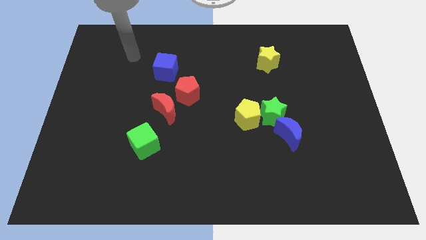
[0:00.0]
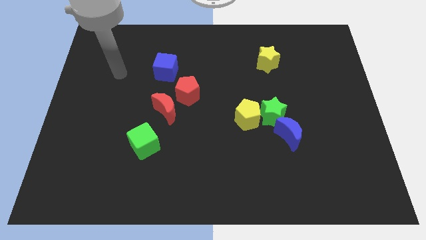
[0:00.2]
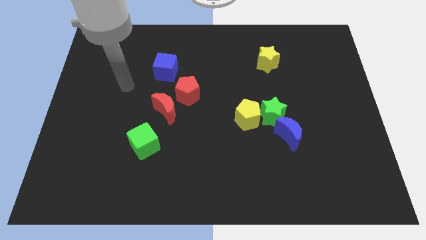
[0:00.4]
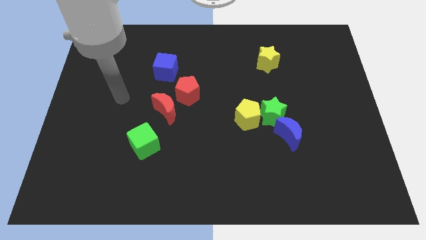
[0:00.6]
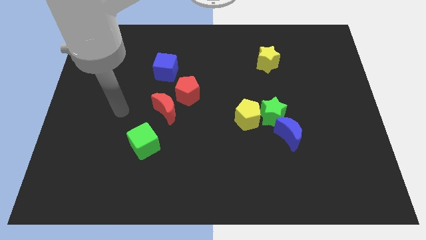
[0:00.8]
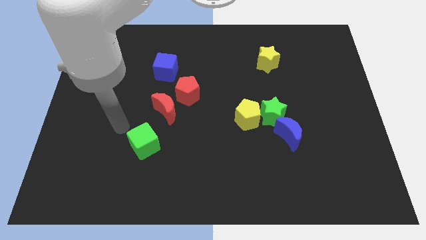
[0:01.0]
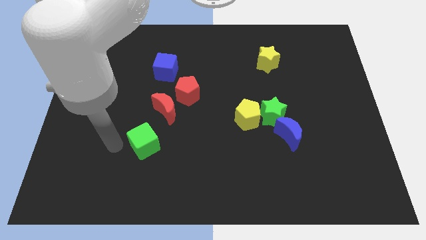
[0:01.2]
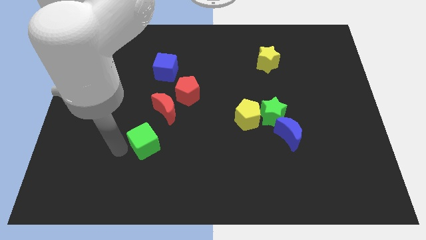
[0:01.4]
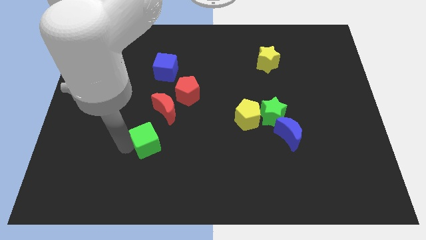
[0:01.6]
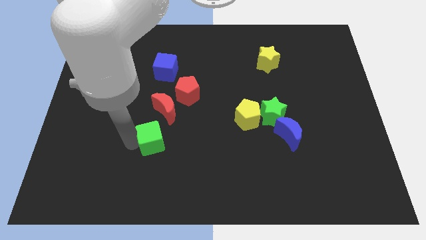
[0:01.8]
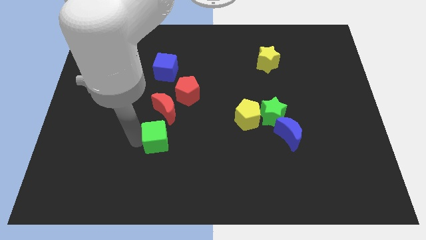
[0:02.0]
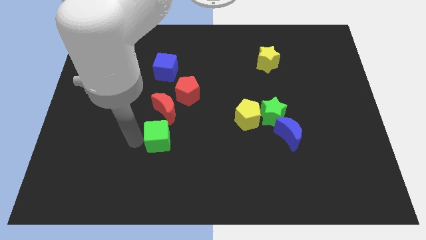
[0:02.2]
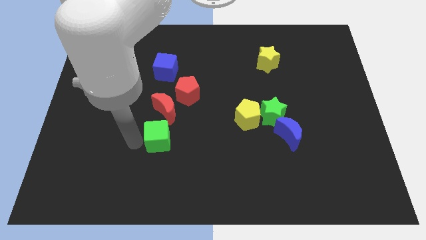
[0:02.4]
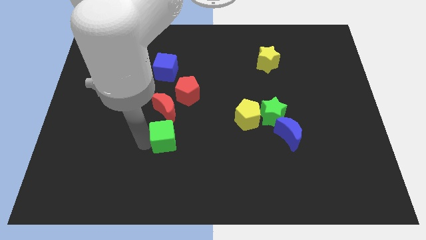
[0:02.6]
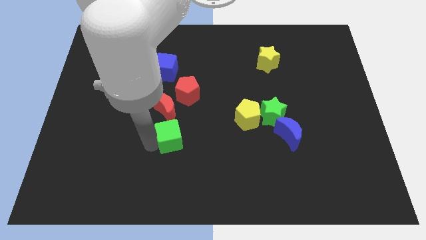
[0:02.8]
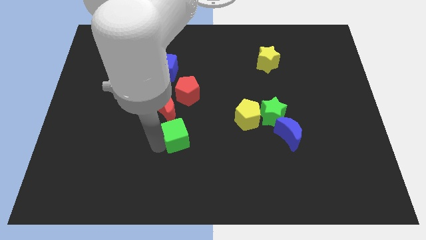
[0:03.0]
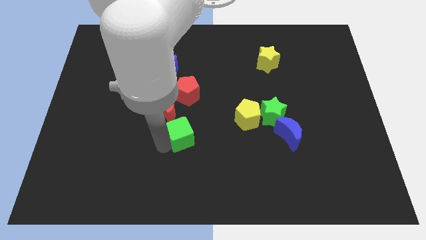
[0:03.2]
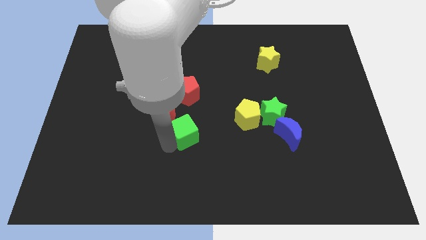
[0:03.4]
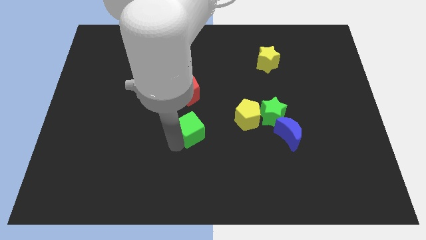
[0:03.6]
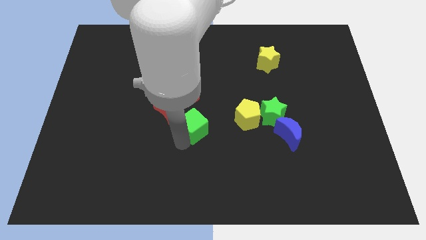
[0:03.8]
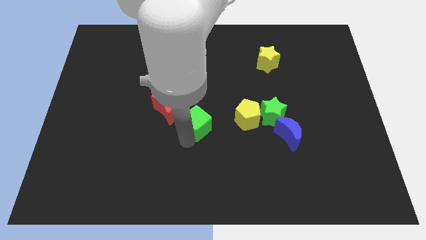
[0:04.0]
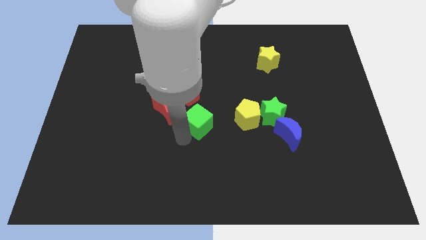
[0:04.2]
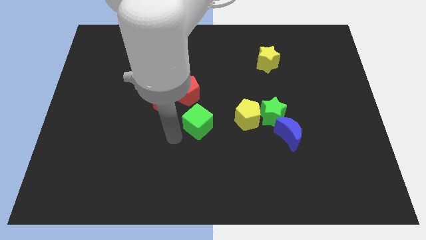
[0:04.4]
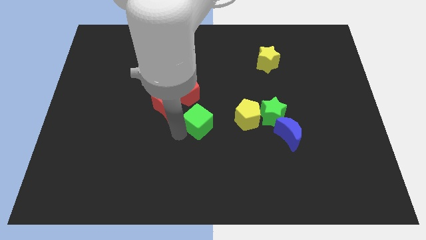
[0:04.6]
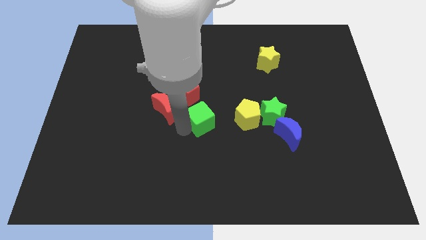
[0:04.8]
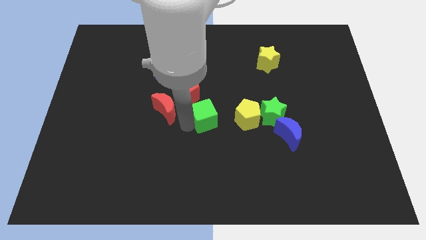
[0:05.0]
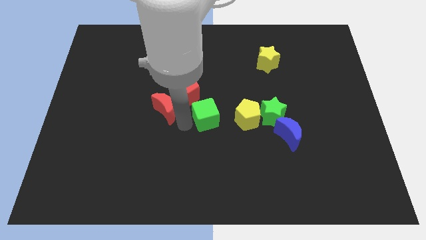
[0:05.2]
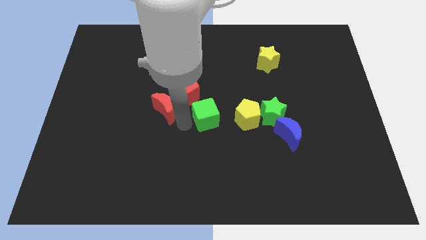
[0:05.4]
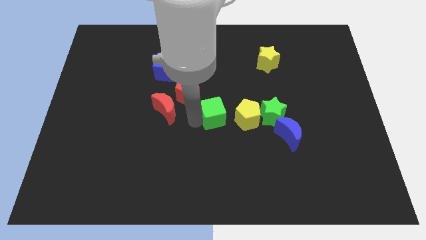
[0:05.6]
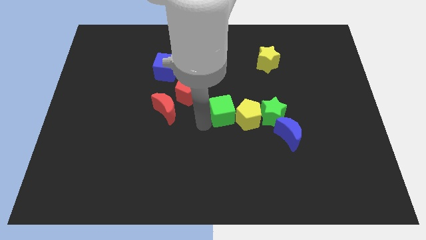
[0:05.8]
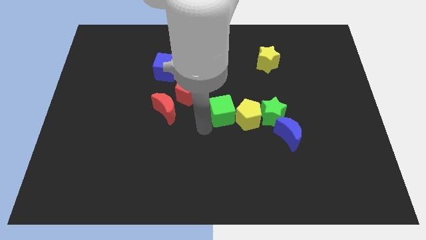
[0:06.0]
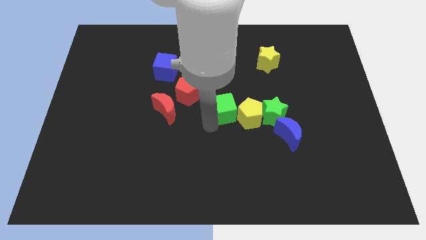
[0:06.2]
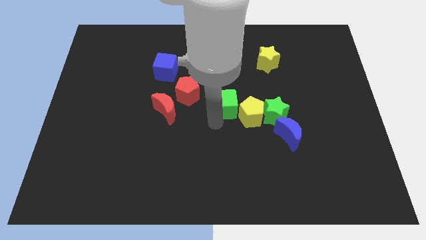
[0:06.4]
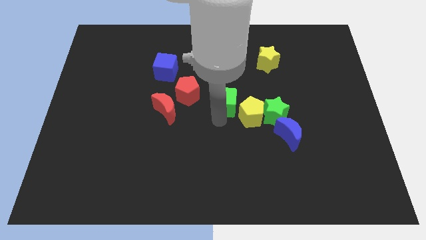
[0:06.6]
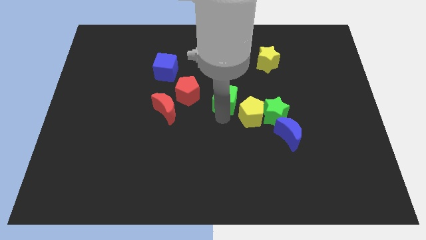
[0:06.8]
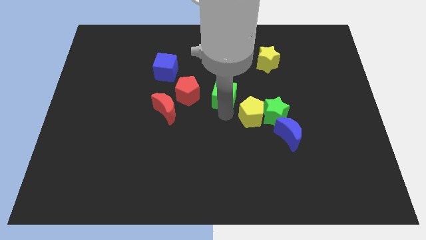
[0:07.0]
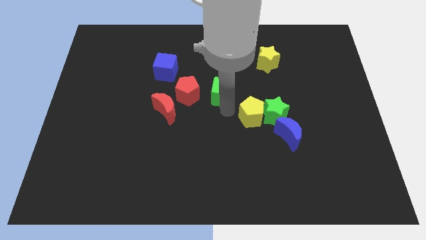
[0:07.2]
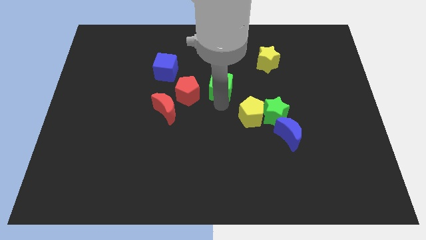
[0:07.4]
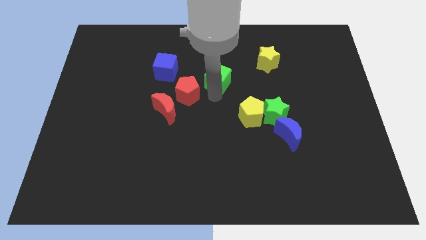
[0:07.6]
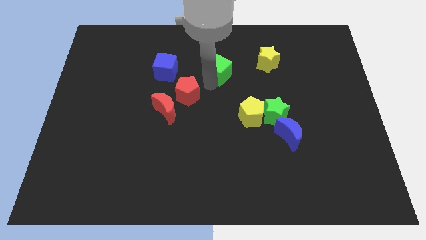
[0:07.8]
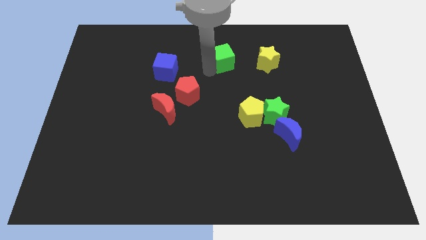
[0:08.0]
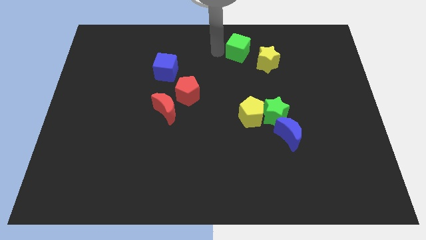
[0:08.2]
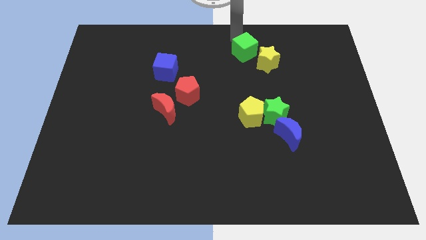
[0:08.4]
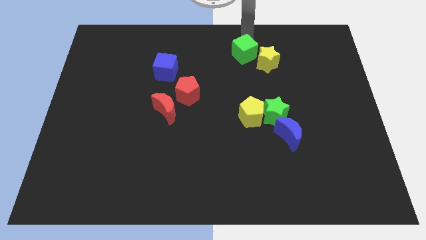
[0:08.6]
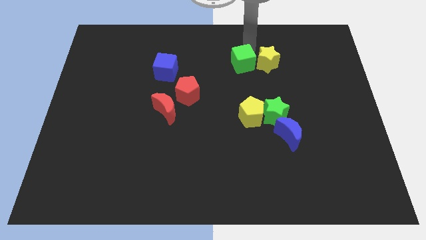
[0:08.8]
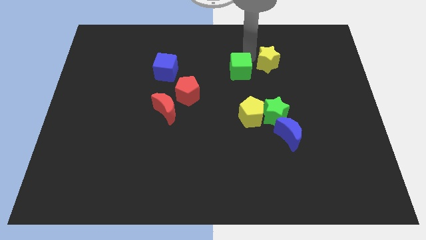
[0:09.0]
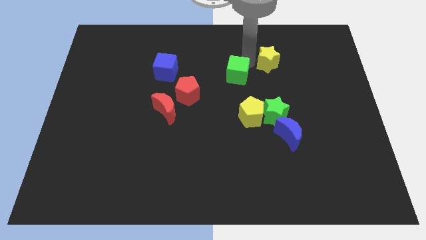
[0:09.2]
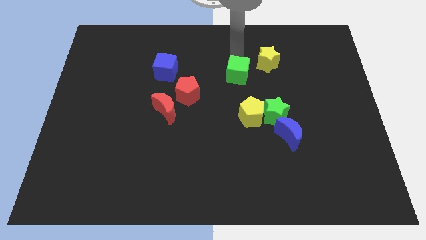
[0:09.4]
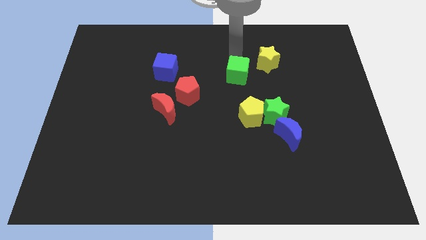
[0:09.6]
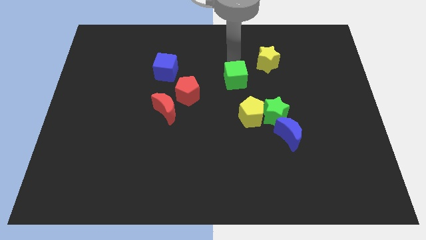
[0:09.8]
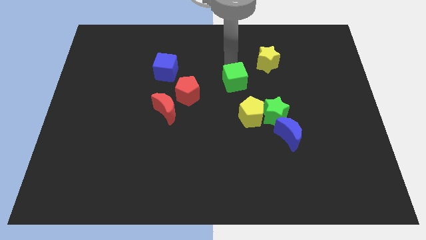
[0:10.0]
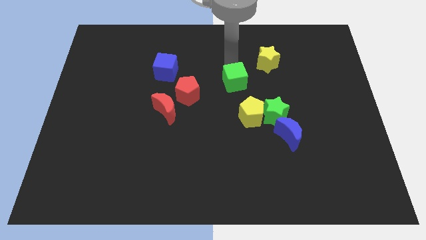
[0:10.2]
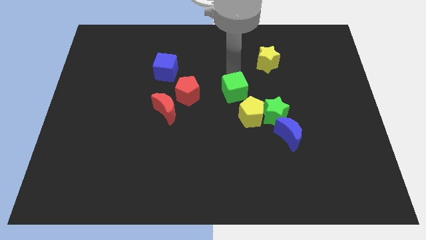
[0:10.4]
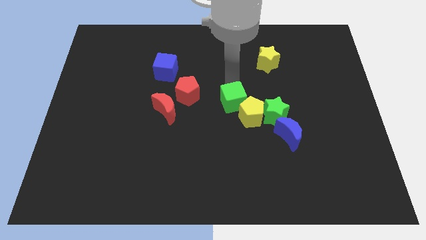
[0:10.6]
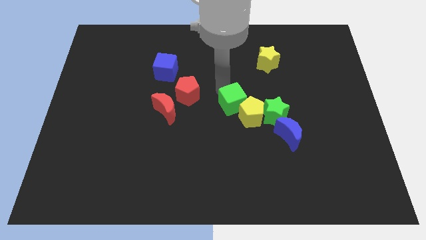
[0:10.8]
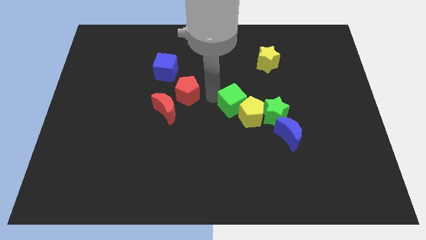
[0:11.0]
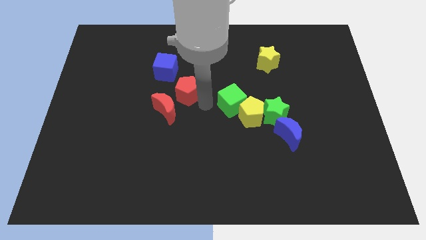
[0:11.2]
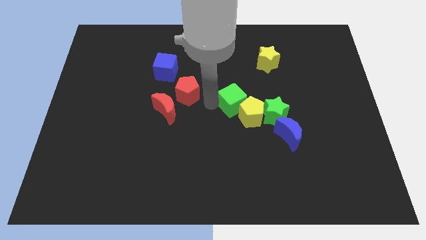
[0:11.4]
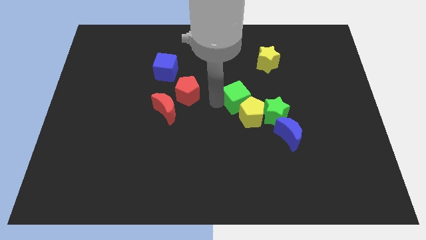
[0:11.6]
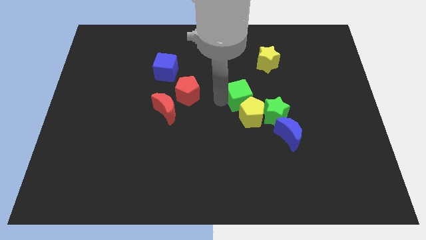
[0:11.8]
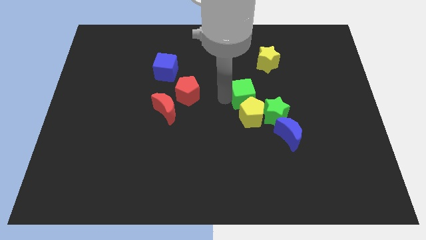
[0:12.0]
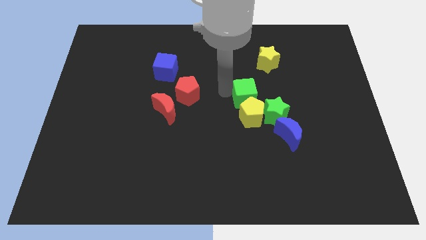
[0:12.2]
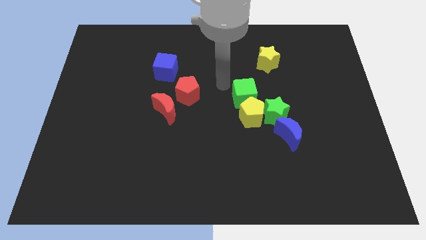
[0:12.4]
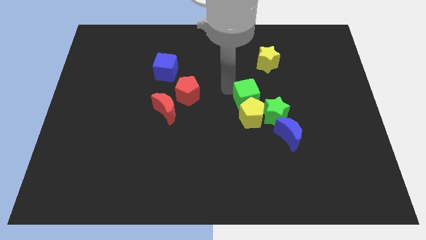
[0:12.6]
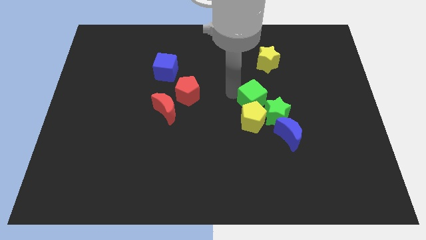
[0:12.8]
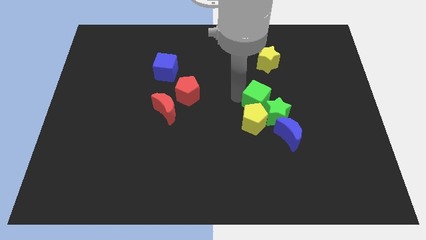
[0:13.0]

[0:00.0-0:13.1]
put the green cube to the green star
